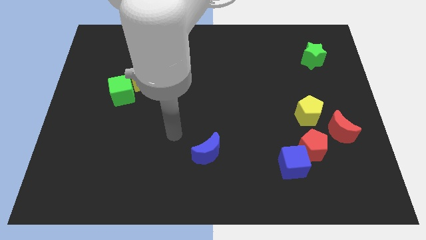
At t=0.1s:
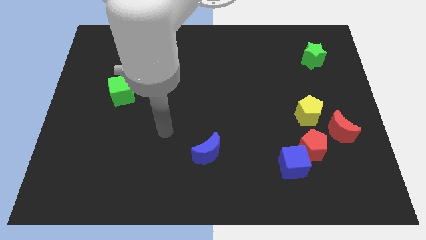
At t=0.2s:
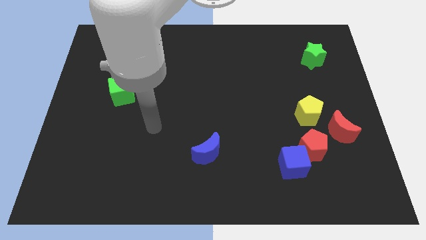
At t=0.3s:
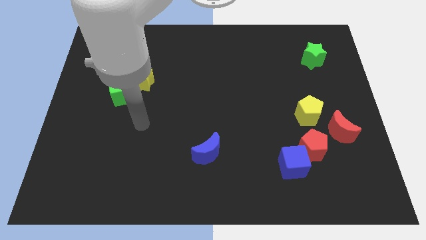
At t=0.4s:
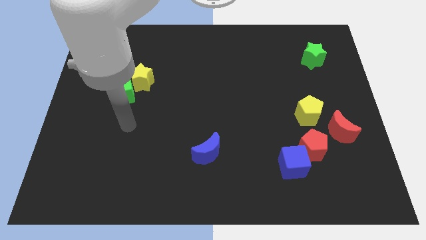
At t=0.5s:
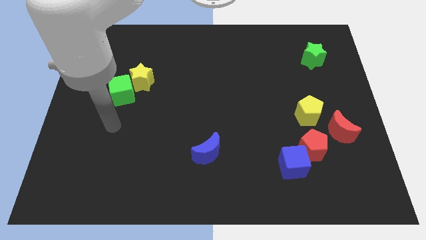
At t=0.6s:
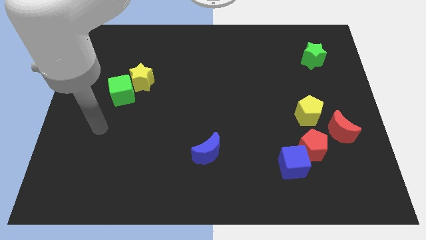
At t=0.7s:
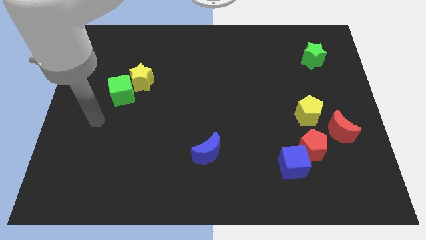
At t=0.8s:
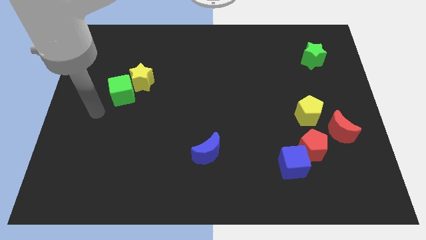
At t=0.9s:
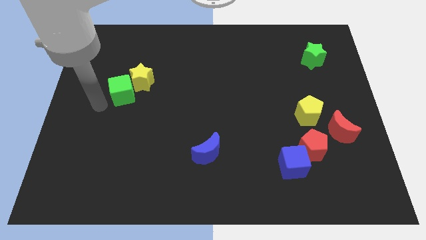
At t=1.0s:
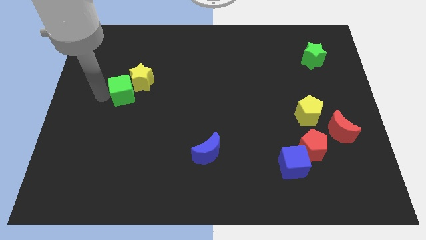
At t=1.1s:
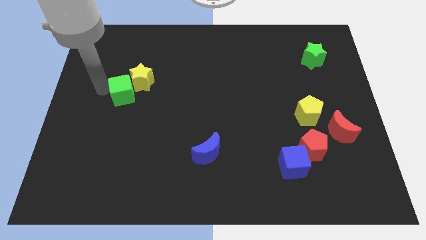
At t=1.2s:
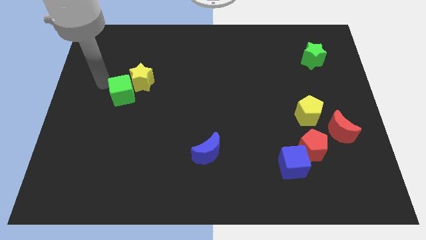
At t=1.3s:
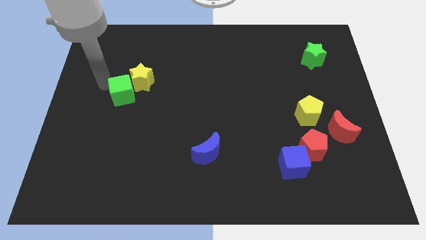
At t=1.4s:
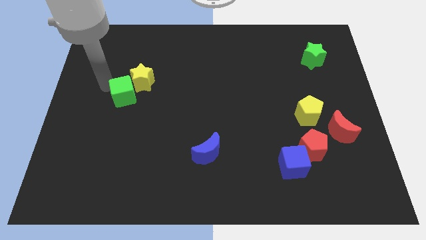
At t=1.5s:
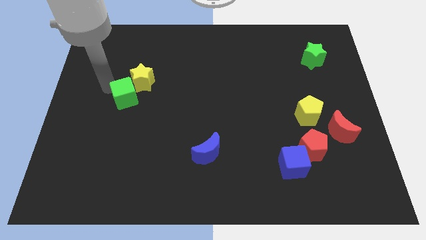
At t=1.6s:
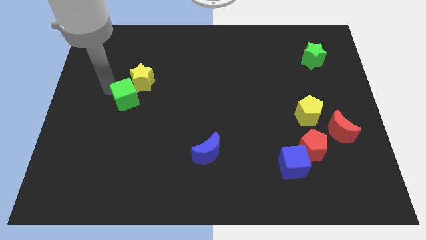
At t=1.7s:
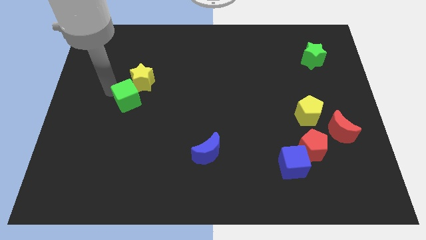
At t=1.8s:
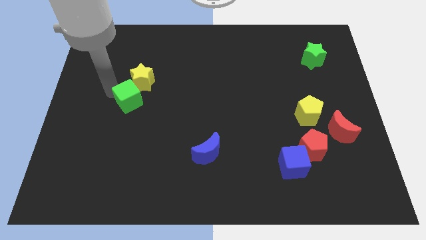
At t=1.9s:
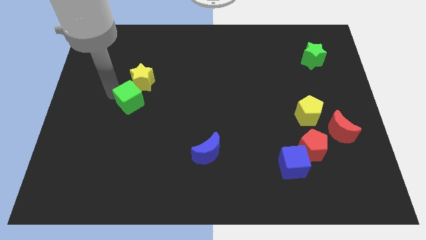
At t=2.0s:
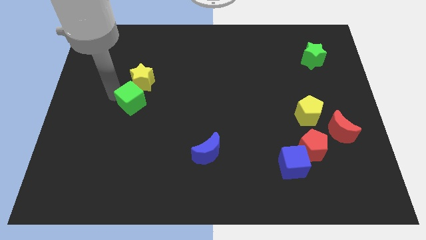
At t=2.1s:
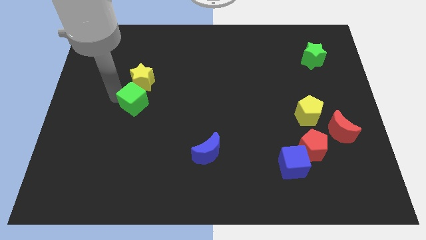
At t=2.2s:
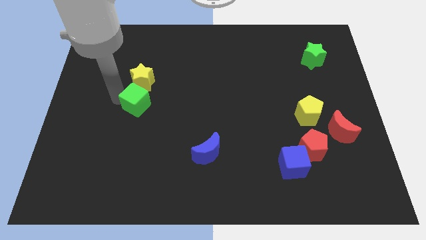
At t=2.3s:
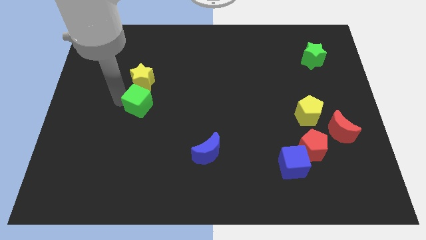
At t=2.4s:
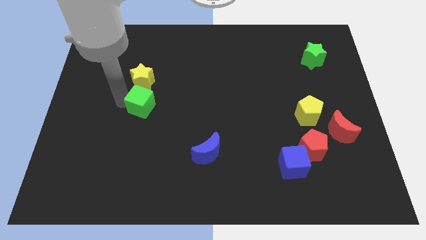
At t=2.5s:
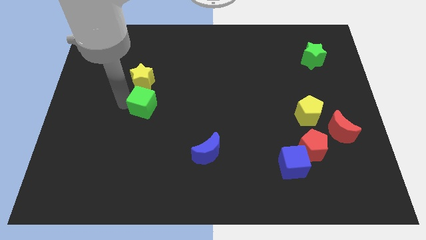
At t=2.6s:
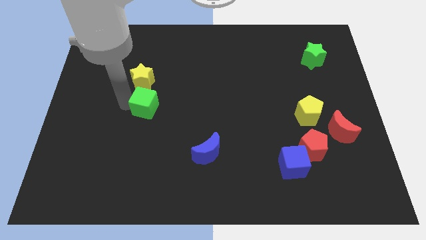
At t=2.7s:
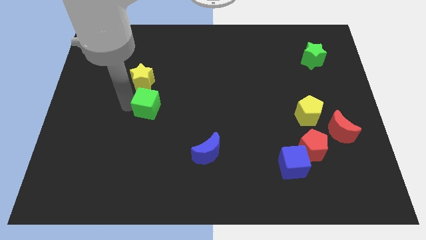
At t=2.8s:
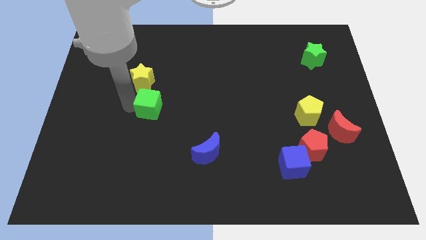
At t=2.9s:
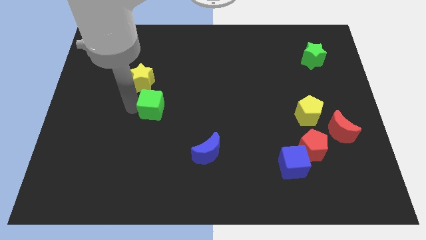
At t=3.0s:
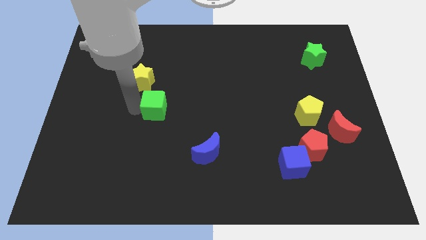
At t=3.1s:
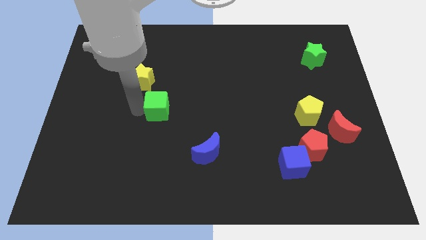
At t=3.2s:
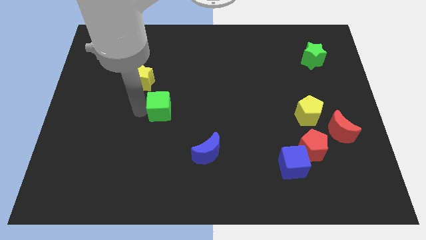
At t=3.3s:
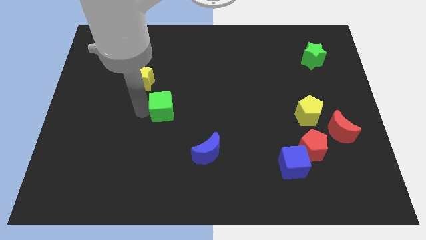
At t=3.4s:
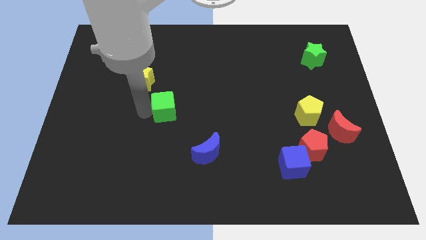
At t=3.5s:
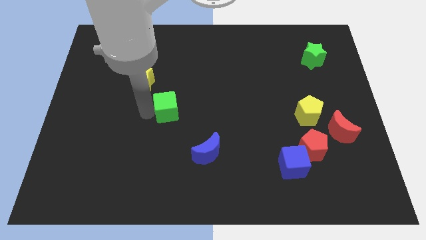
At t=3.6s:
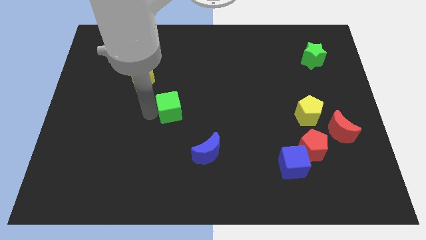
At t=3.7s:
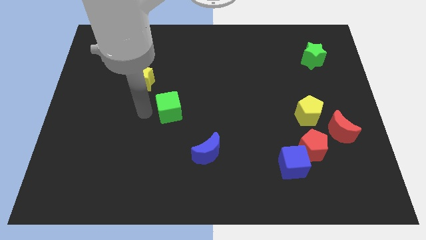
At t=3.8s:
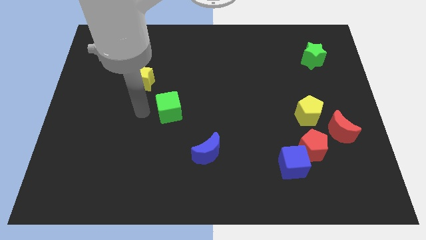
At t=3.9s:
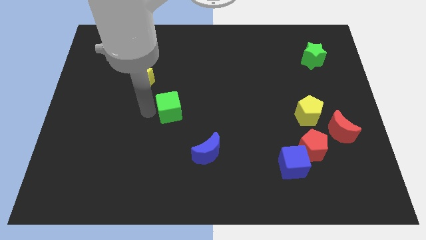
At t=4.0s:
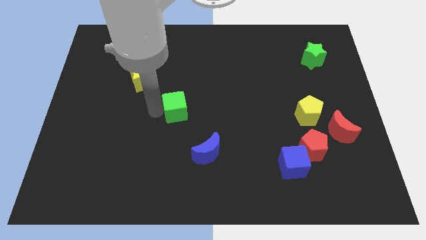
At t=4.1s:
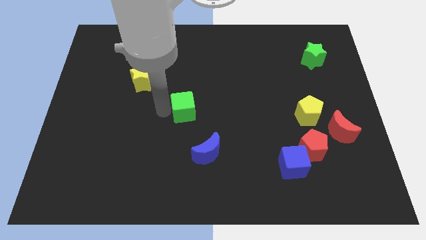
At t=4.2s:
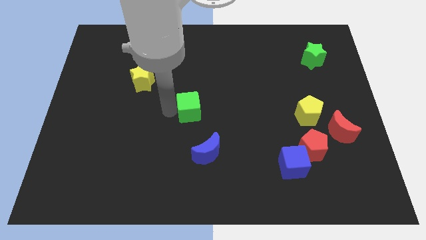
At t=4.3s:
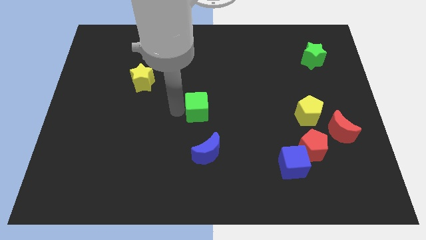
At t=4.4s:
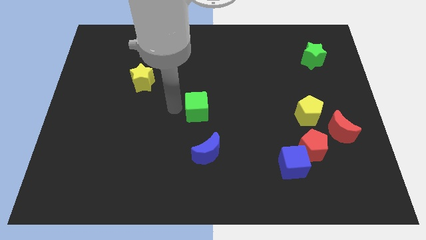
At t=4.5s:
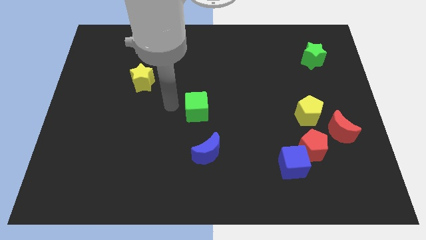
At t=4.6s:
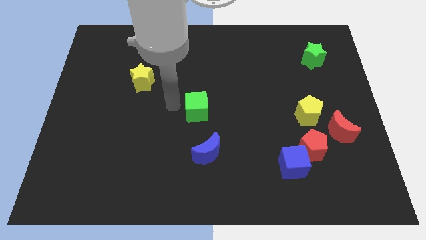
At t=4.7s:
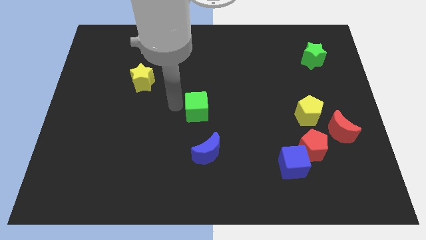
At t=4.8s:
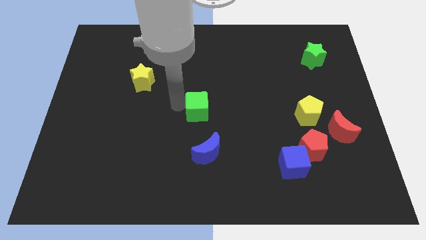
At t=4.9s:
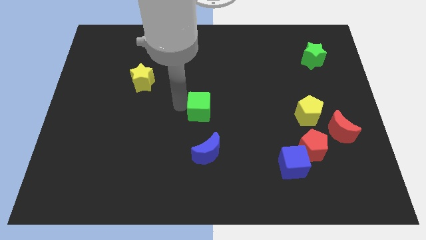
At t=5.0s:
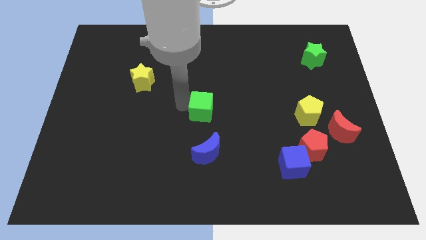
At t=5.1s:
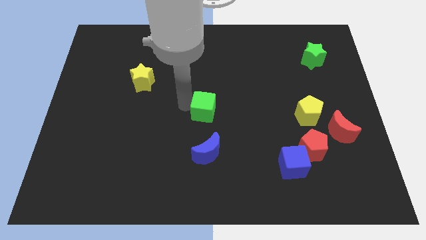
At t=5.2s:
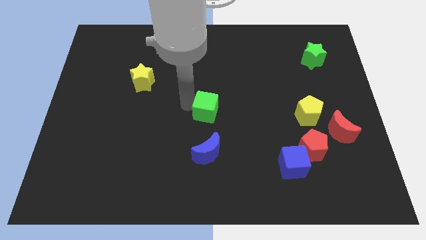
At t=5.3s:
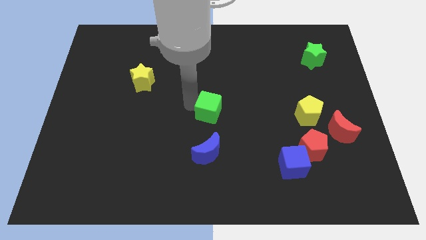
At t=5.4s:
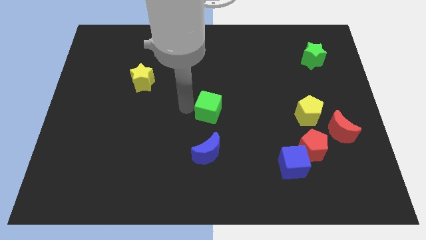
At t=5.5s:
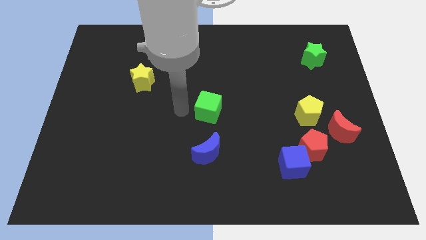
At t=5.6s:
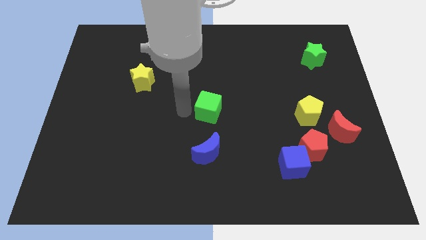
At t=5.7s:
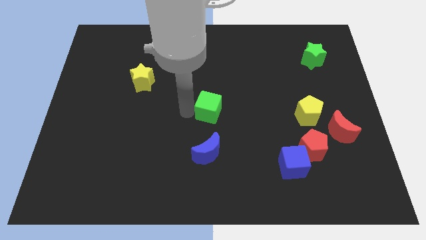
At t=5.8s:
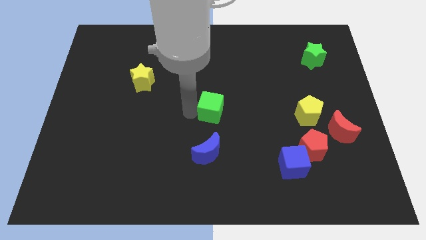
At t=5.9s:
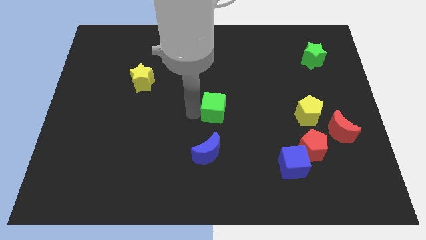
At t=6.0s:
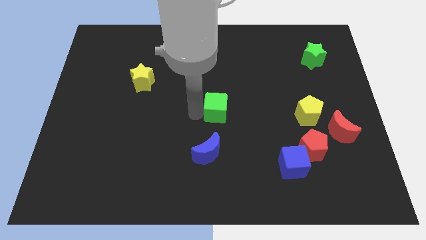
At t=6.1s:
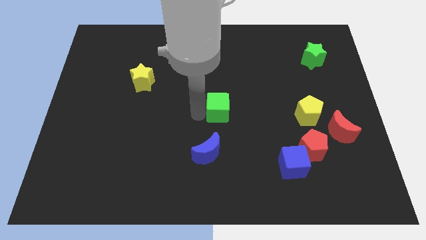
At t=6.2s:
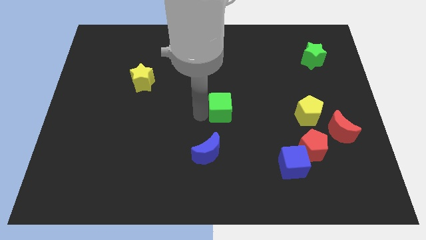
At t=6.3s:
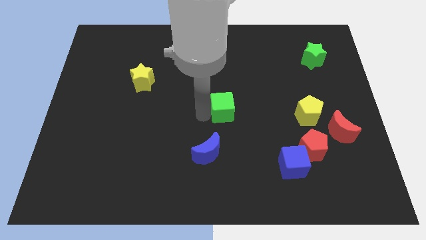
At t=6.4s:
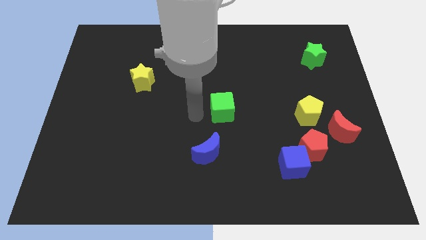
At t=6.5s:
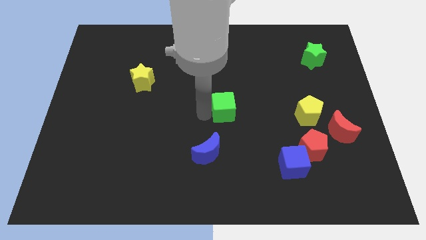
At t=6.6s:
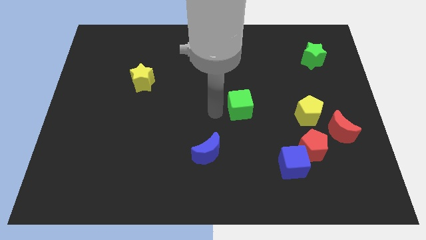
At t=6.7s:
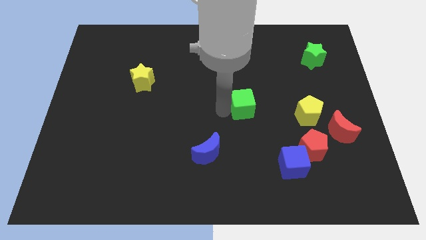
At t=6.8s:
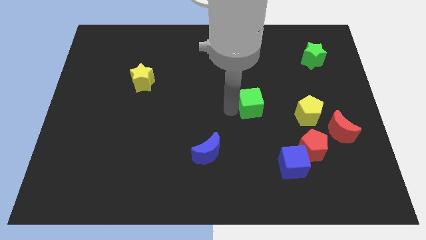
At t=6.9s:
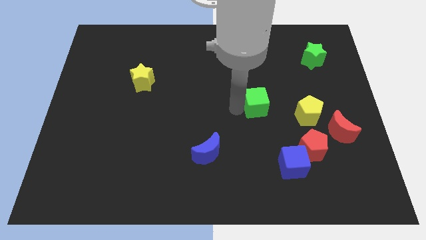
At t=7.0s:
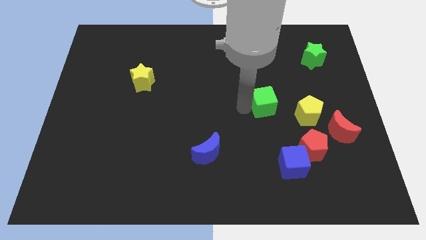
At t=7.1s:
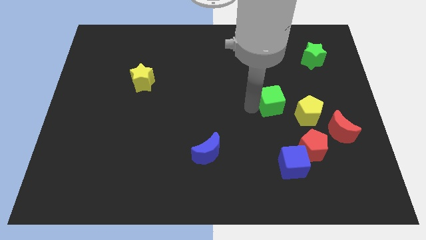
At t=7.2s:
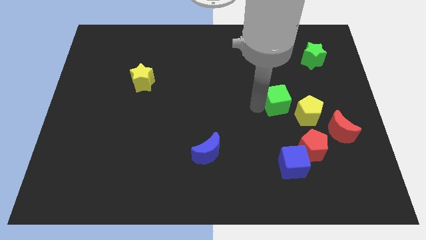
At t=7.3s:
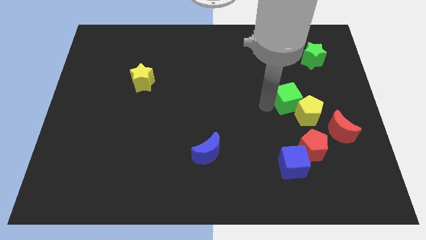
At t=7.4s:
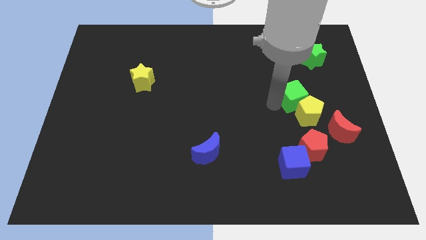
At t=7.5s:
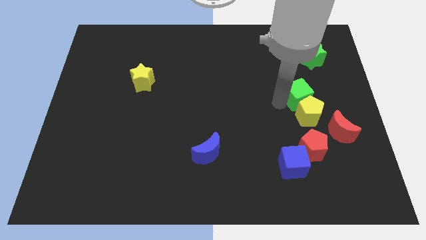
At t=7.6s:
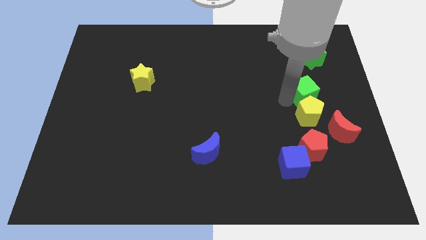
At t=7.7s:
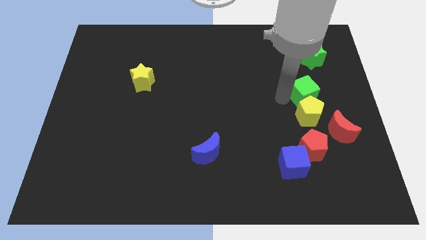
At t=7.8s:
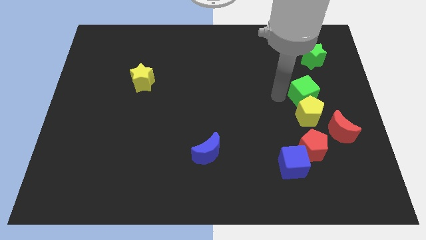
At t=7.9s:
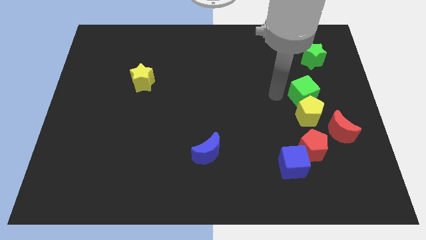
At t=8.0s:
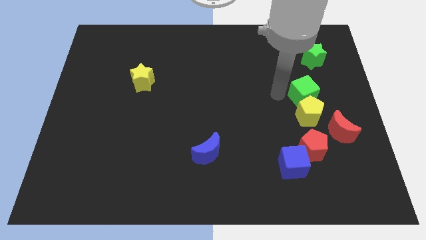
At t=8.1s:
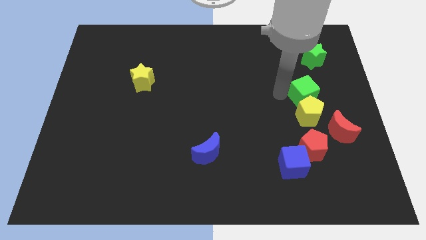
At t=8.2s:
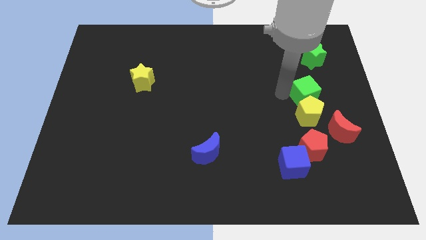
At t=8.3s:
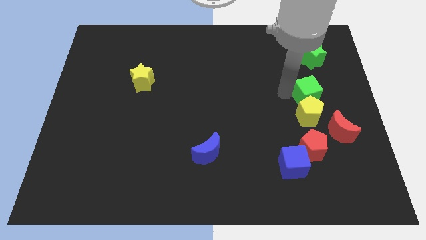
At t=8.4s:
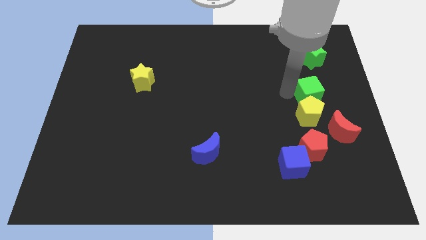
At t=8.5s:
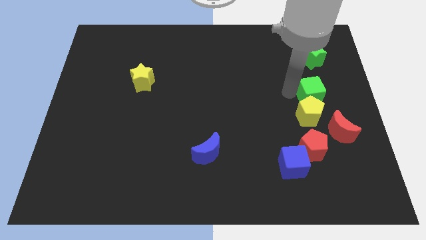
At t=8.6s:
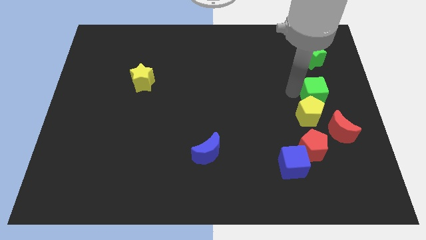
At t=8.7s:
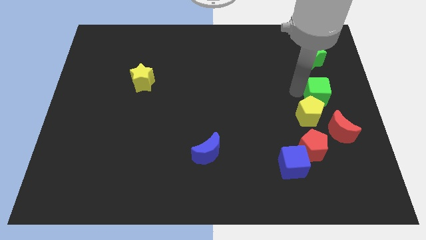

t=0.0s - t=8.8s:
push the green cube to the right side of the board
